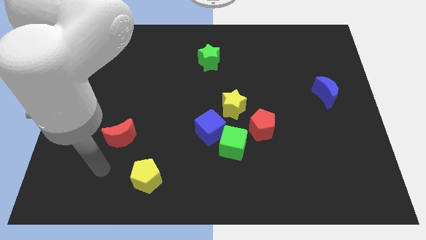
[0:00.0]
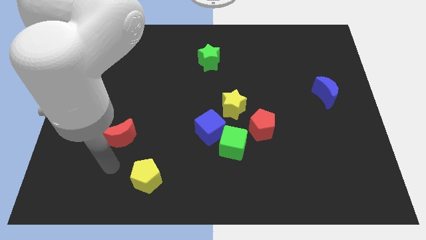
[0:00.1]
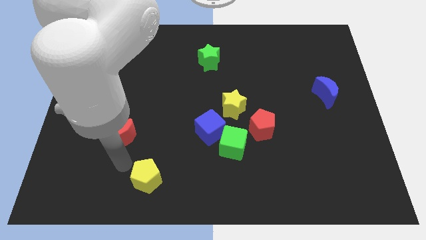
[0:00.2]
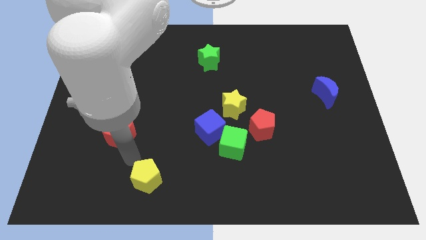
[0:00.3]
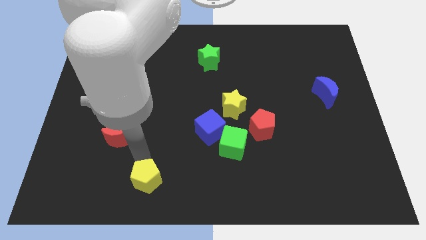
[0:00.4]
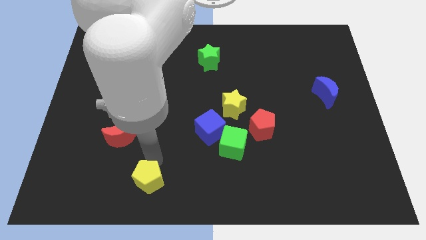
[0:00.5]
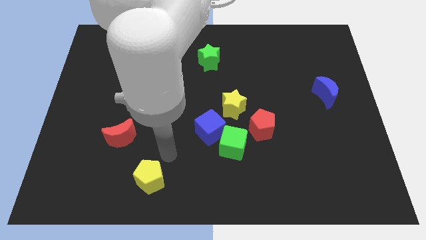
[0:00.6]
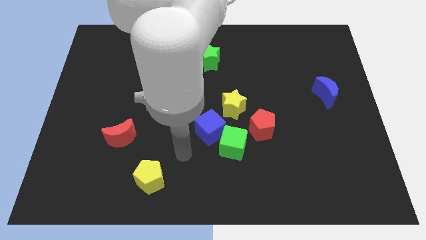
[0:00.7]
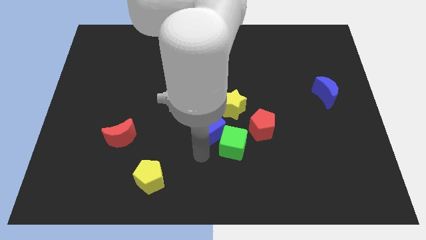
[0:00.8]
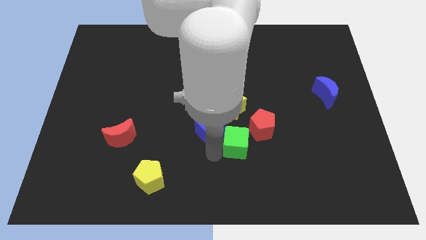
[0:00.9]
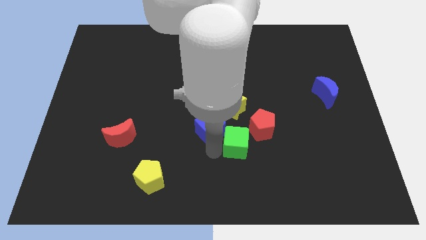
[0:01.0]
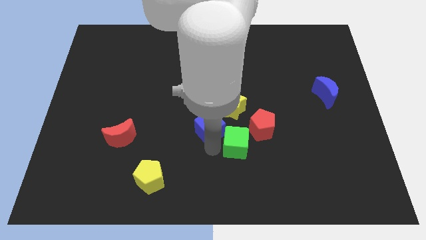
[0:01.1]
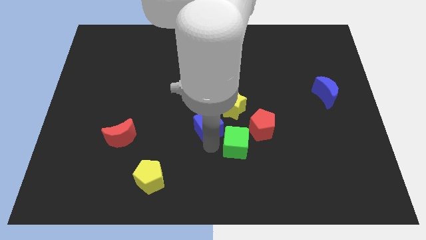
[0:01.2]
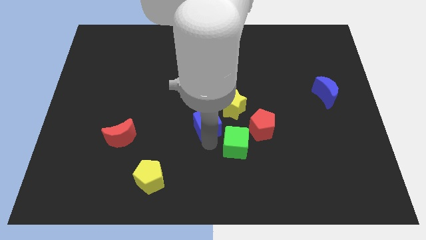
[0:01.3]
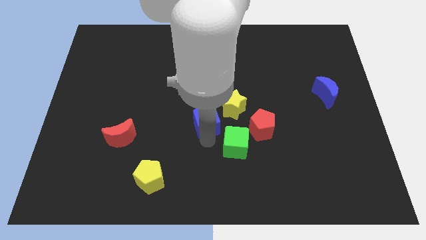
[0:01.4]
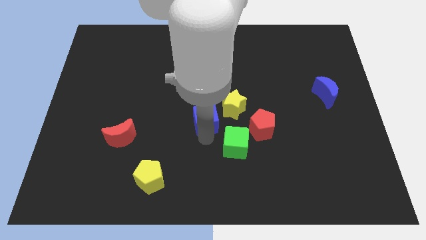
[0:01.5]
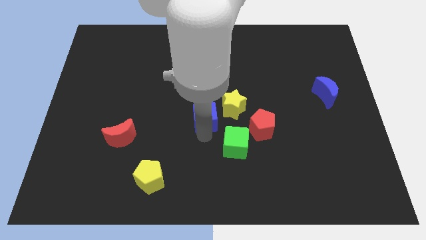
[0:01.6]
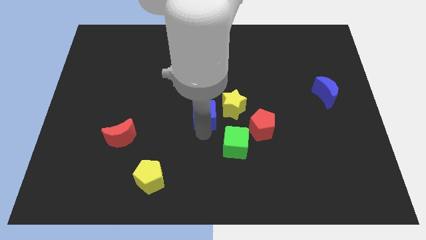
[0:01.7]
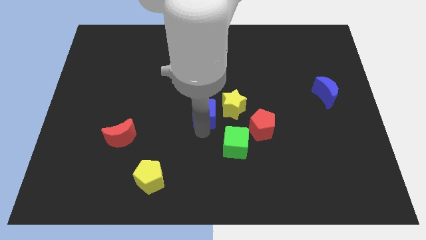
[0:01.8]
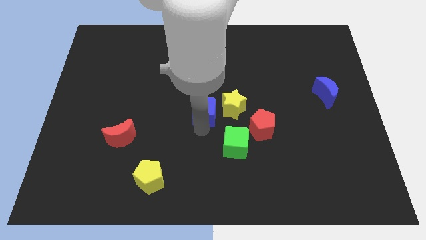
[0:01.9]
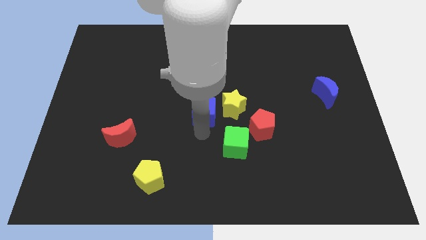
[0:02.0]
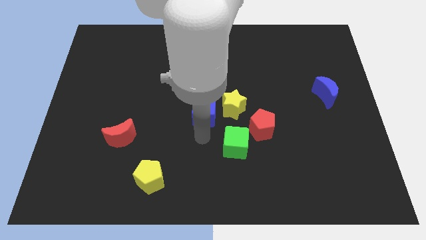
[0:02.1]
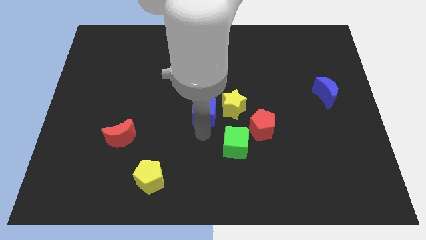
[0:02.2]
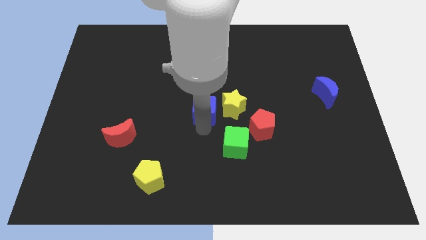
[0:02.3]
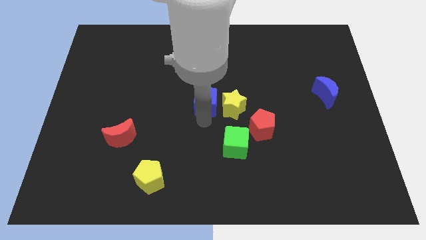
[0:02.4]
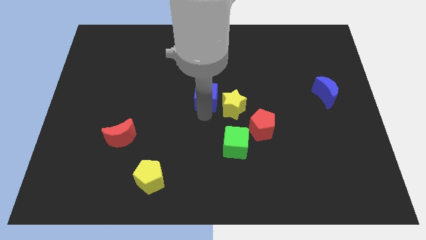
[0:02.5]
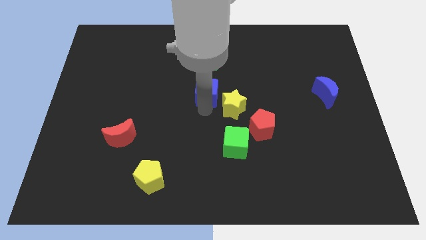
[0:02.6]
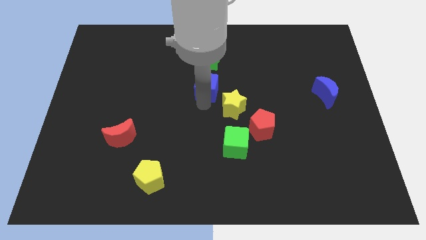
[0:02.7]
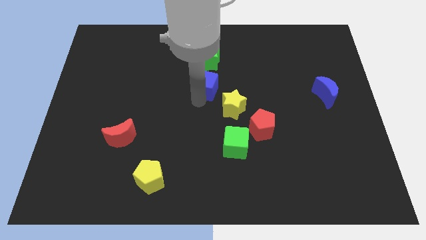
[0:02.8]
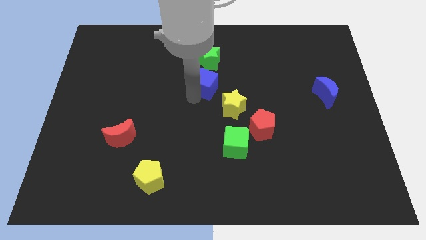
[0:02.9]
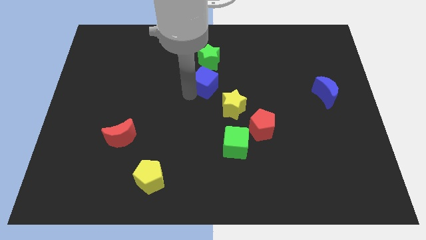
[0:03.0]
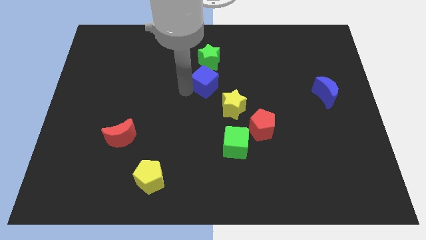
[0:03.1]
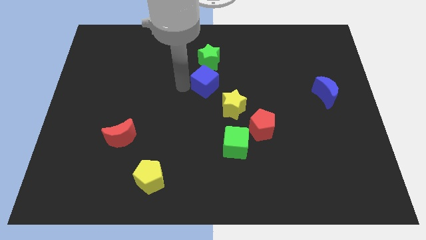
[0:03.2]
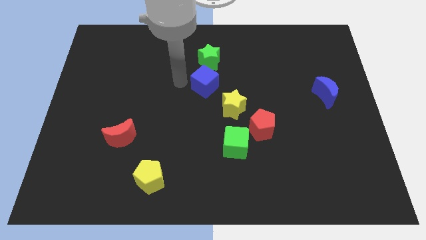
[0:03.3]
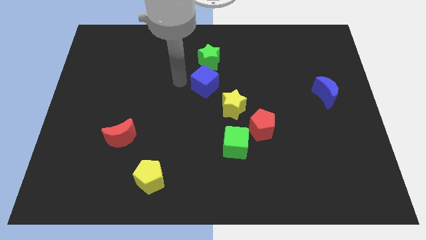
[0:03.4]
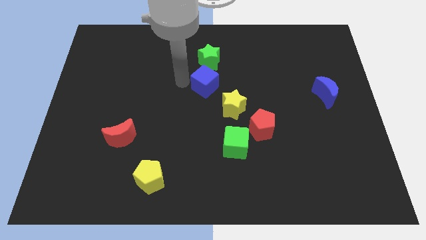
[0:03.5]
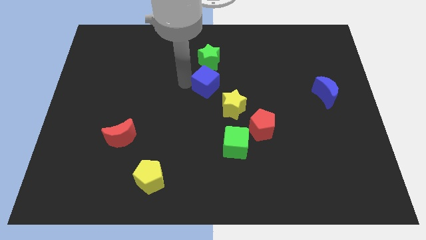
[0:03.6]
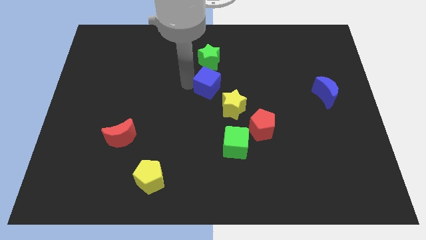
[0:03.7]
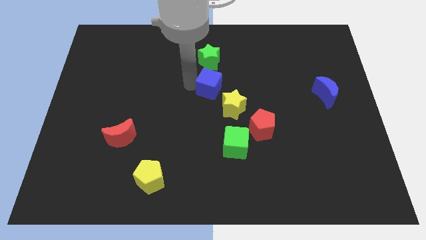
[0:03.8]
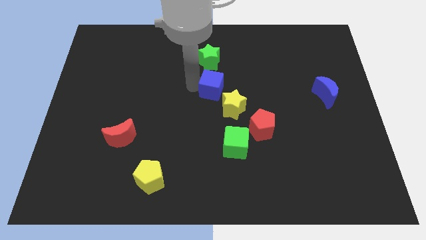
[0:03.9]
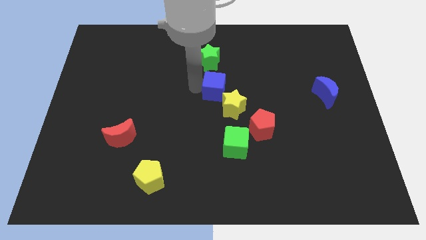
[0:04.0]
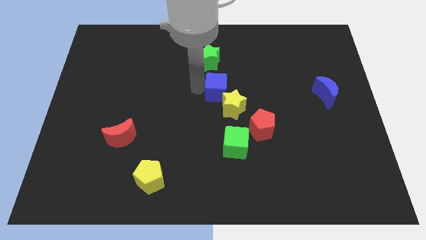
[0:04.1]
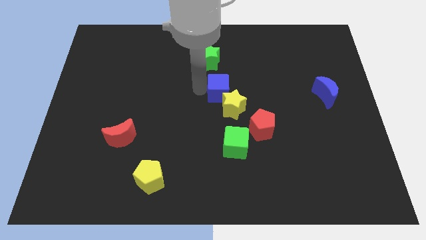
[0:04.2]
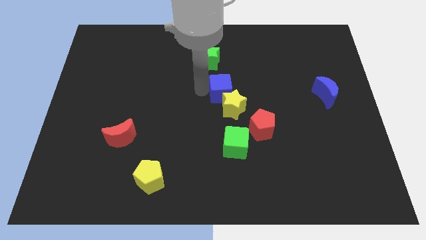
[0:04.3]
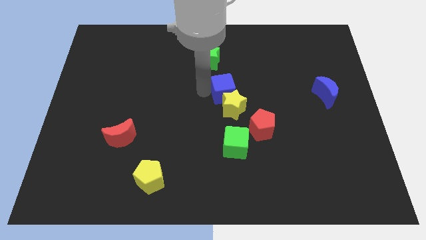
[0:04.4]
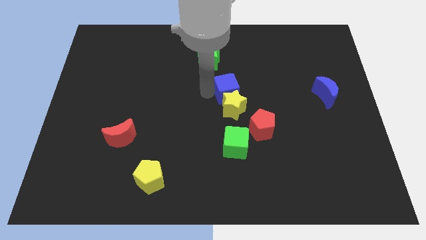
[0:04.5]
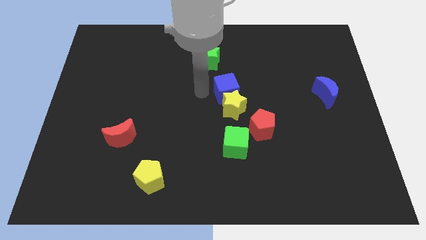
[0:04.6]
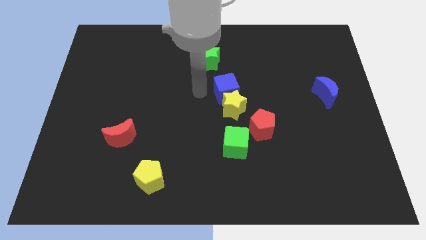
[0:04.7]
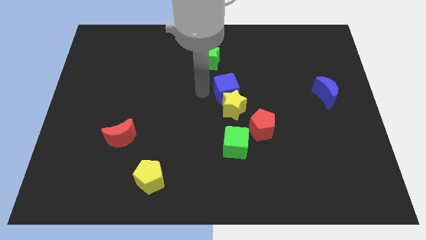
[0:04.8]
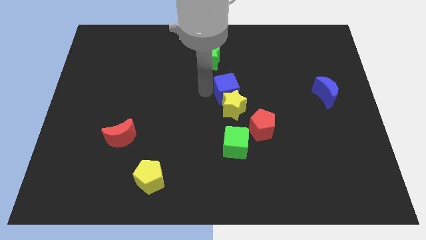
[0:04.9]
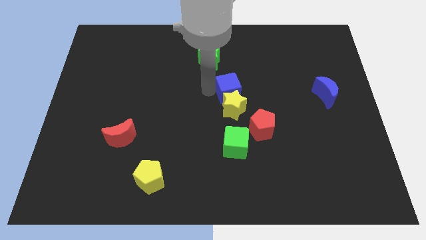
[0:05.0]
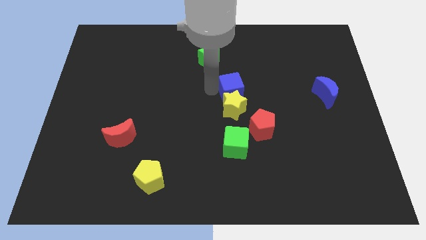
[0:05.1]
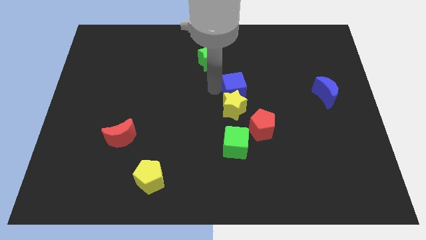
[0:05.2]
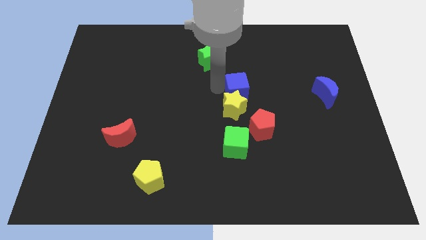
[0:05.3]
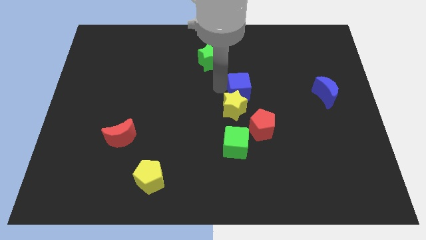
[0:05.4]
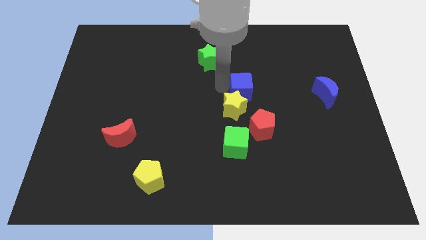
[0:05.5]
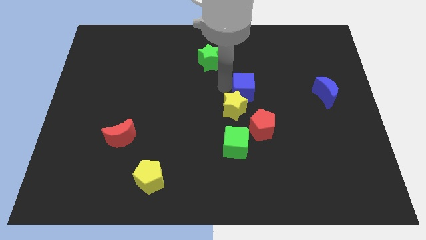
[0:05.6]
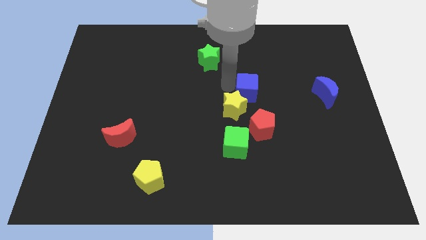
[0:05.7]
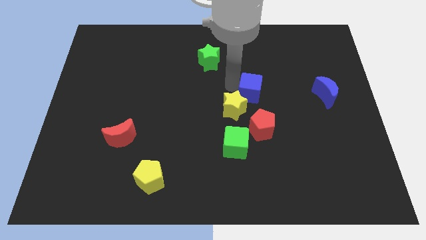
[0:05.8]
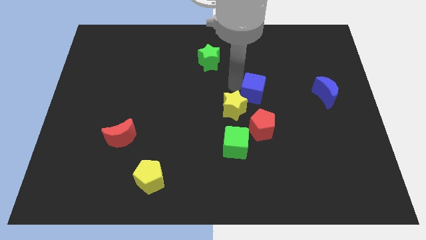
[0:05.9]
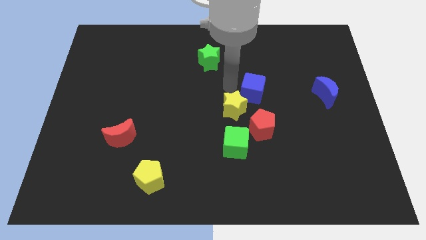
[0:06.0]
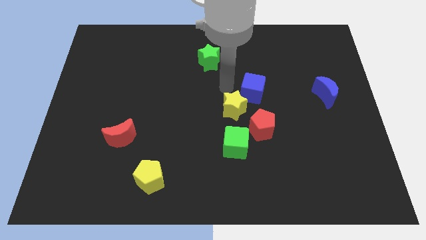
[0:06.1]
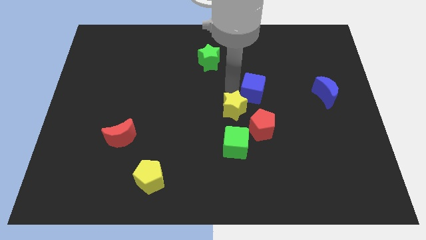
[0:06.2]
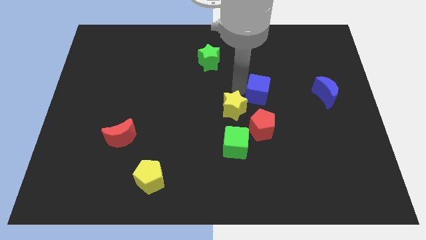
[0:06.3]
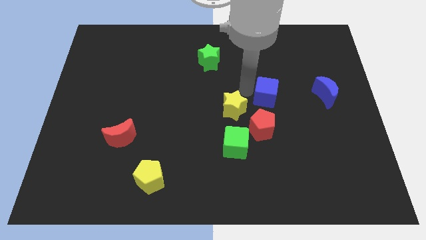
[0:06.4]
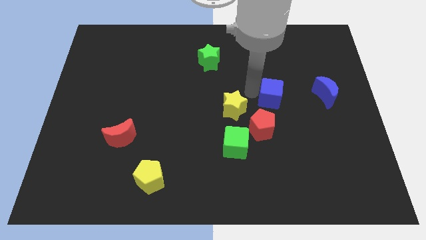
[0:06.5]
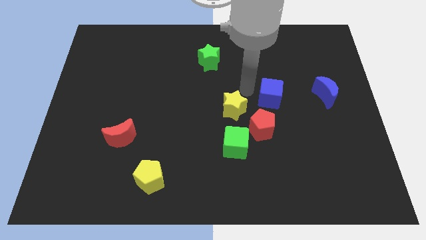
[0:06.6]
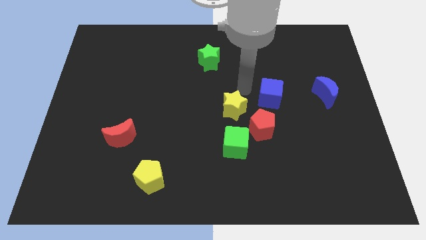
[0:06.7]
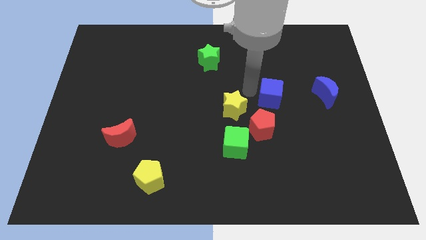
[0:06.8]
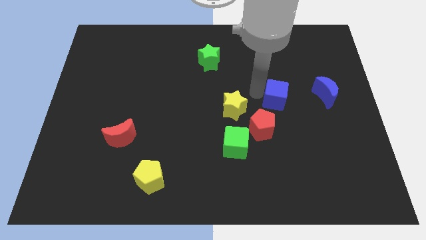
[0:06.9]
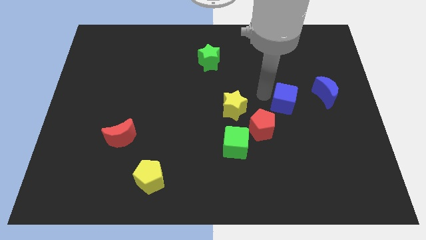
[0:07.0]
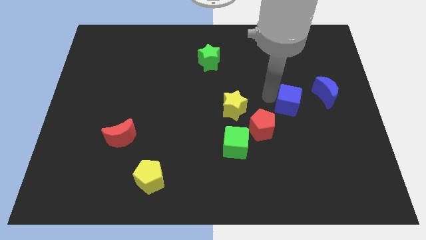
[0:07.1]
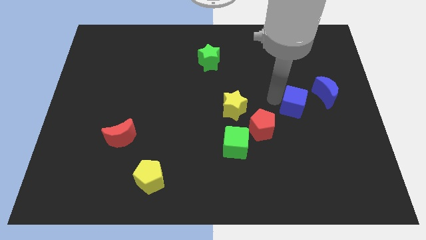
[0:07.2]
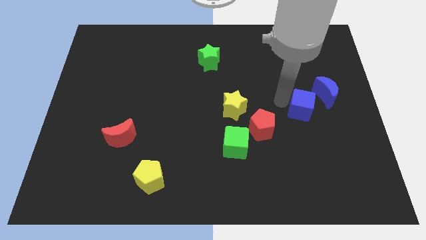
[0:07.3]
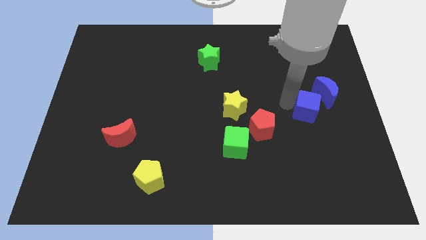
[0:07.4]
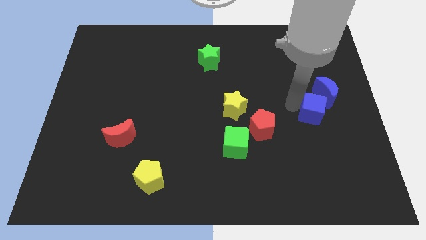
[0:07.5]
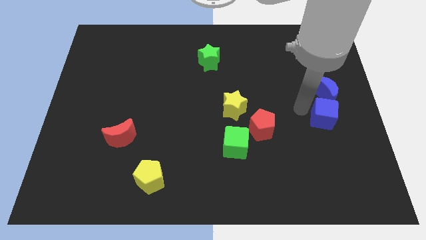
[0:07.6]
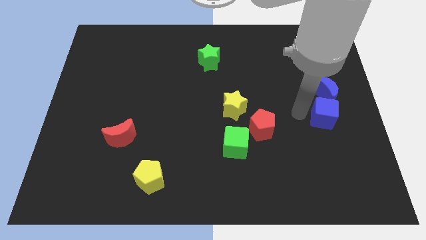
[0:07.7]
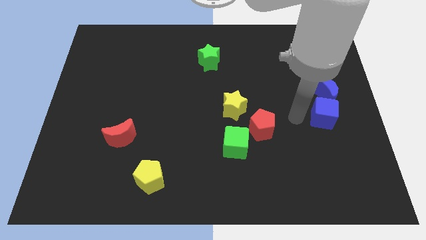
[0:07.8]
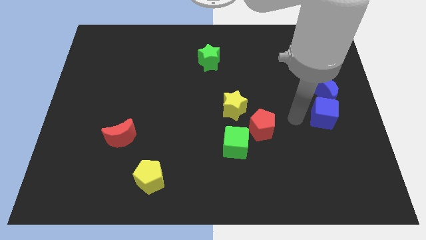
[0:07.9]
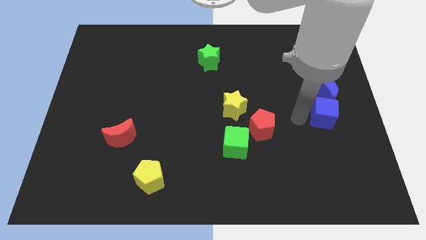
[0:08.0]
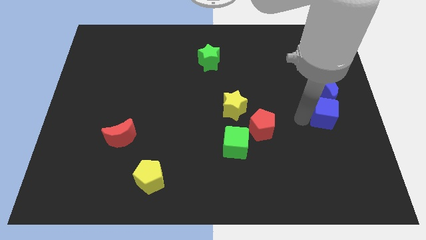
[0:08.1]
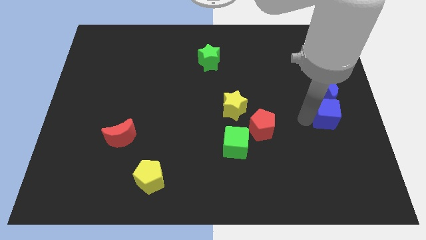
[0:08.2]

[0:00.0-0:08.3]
move the blue cube to the right side
